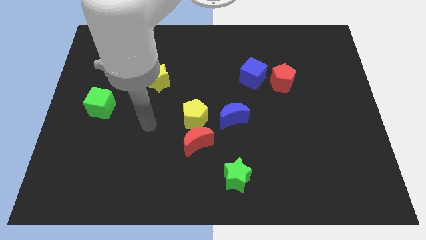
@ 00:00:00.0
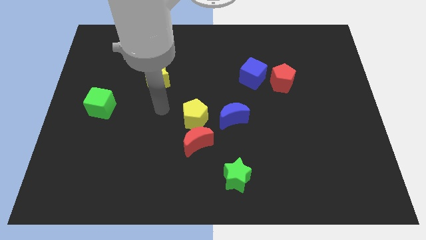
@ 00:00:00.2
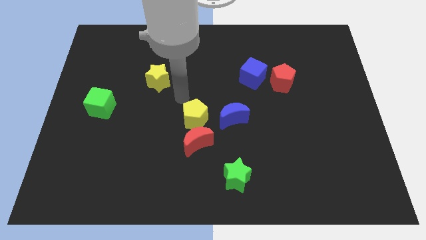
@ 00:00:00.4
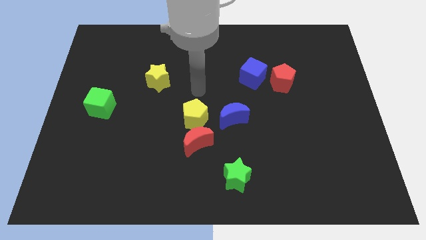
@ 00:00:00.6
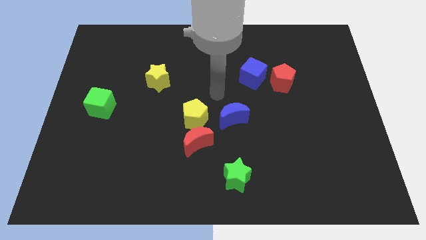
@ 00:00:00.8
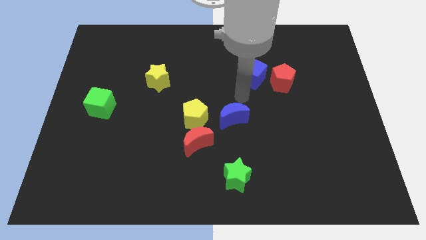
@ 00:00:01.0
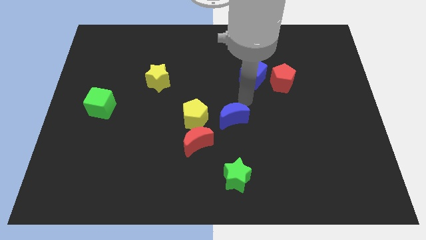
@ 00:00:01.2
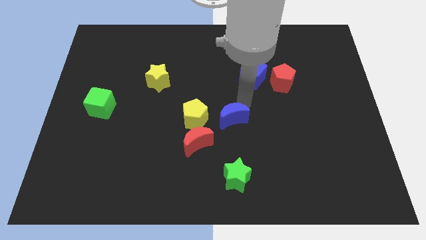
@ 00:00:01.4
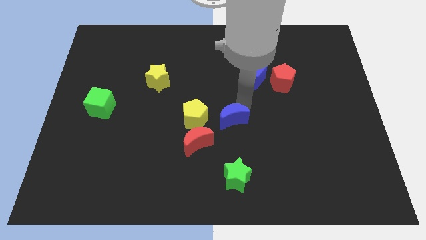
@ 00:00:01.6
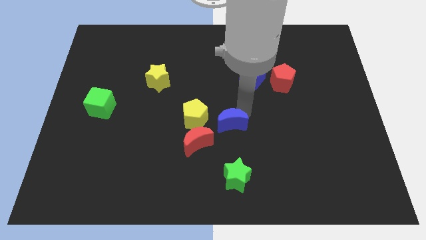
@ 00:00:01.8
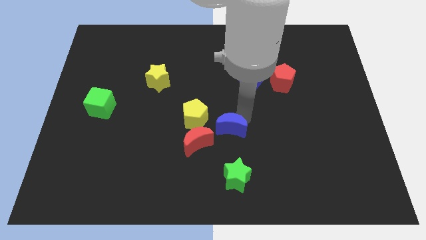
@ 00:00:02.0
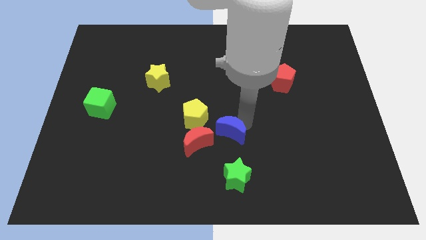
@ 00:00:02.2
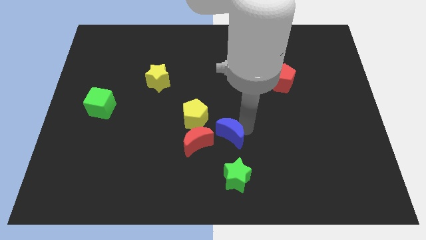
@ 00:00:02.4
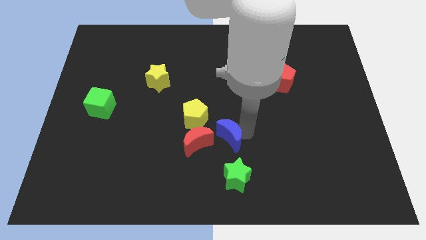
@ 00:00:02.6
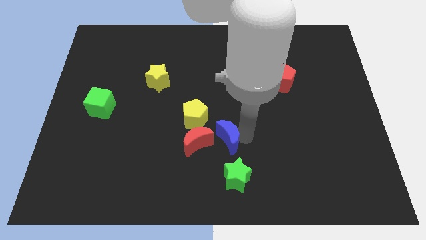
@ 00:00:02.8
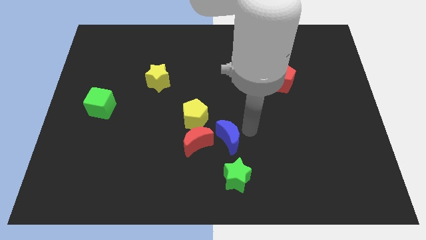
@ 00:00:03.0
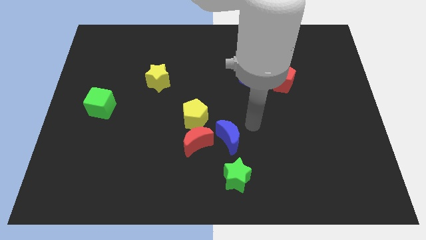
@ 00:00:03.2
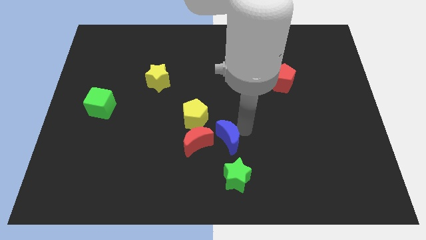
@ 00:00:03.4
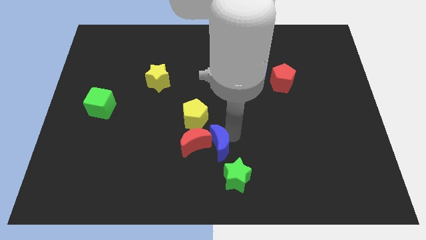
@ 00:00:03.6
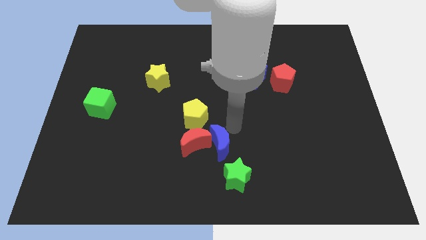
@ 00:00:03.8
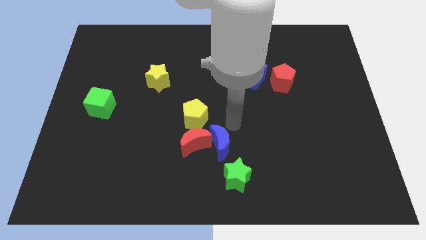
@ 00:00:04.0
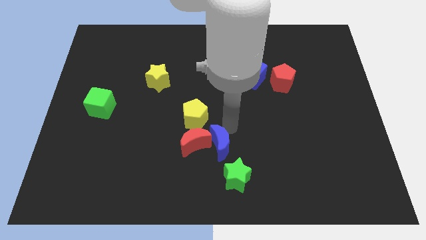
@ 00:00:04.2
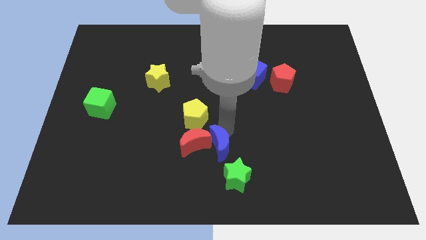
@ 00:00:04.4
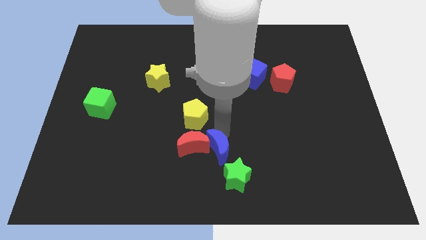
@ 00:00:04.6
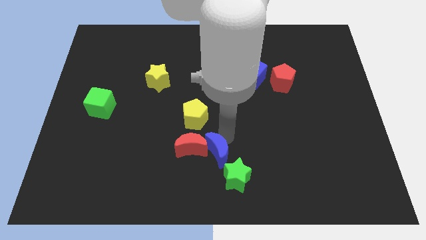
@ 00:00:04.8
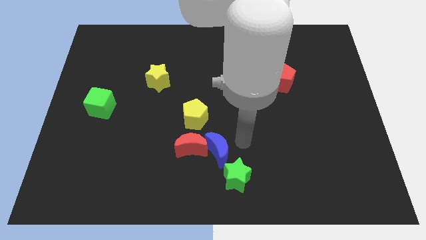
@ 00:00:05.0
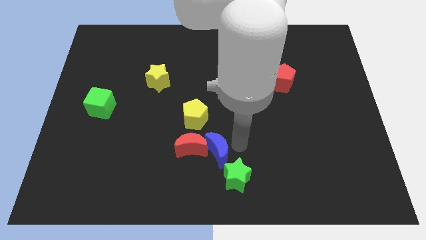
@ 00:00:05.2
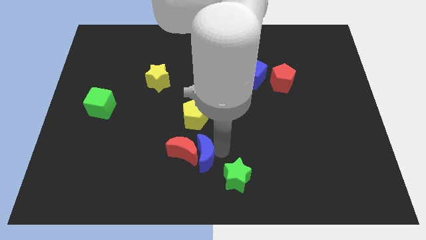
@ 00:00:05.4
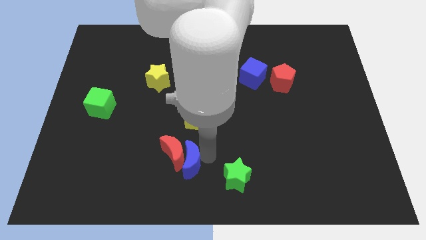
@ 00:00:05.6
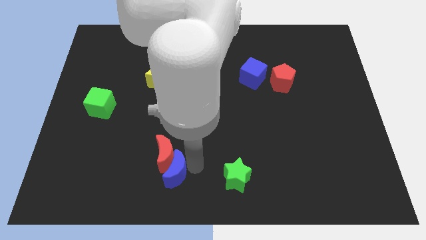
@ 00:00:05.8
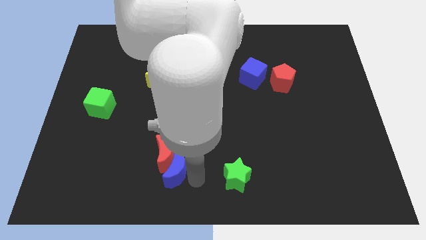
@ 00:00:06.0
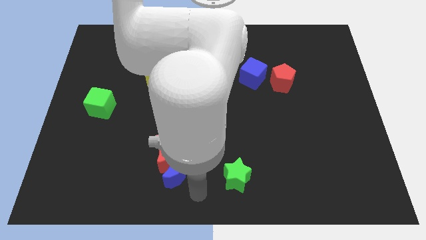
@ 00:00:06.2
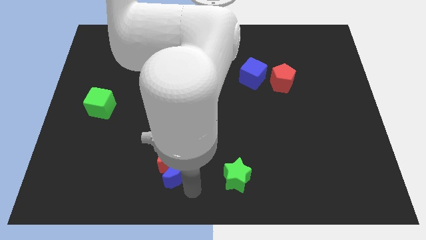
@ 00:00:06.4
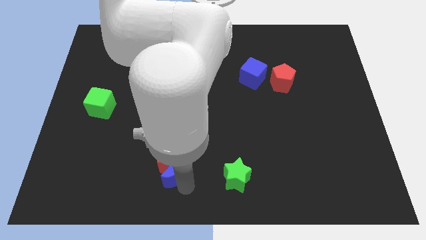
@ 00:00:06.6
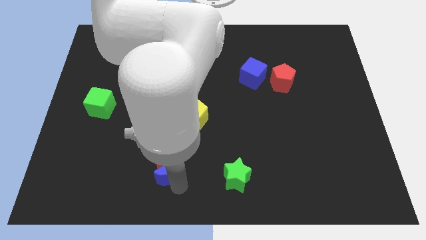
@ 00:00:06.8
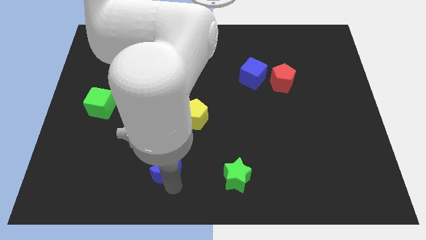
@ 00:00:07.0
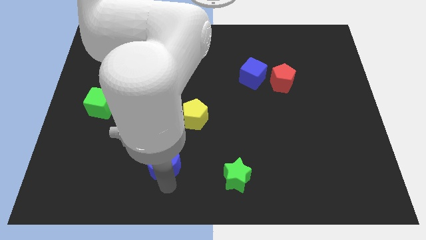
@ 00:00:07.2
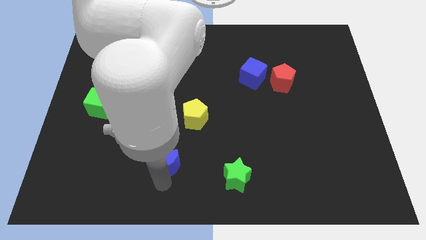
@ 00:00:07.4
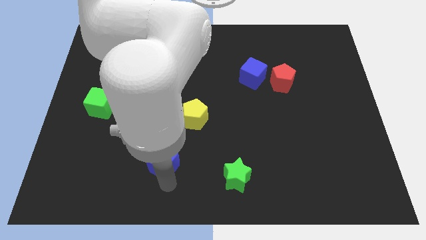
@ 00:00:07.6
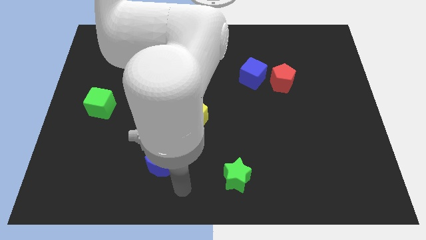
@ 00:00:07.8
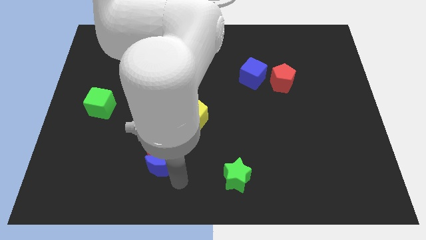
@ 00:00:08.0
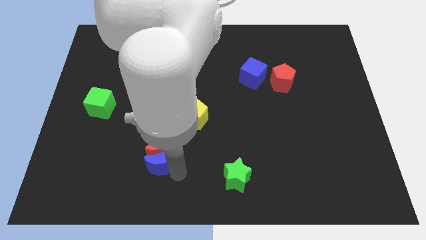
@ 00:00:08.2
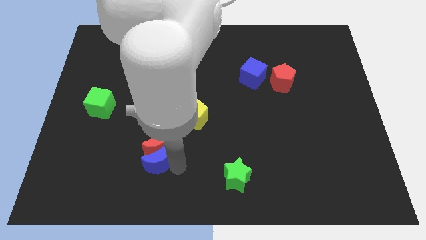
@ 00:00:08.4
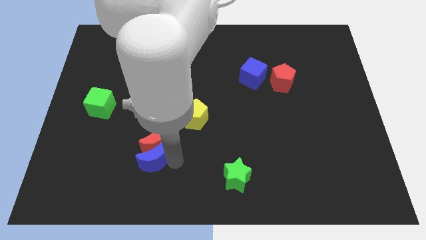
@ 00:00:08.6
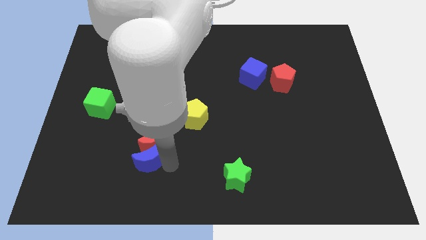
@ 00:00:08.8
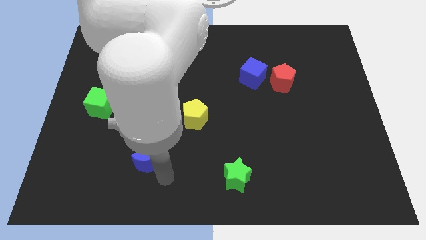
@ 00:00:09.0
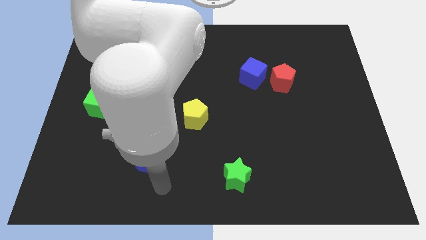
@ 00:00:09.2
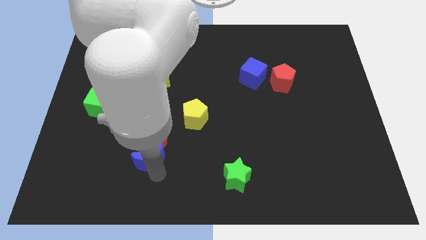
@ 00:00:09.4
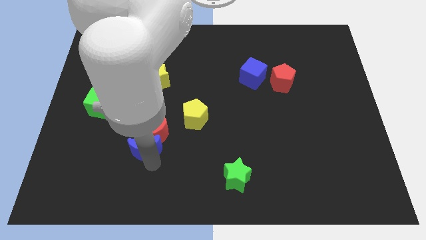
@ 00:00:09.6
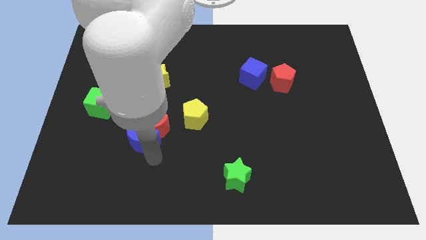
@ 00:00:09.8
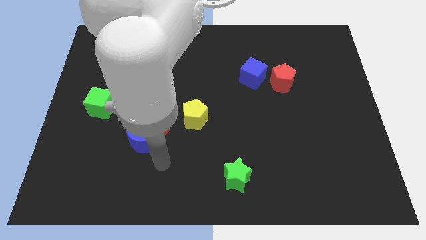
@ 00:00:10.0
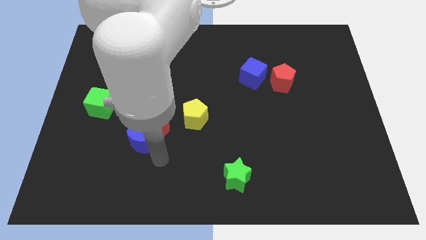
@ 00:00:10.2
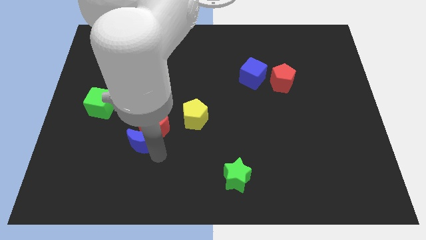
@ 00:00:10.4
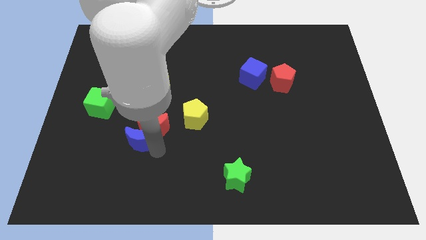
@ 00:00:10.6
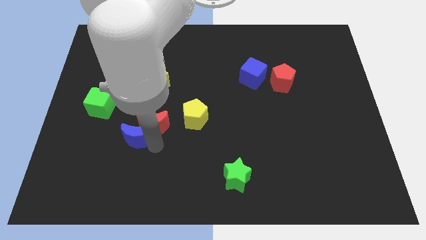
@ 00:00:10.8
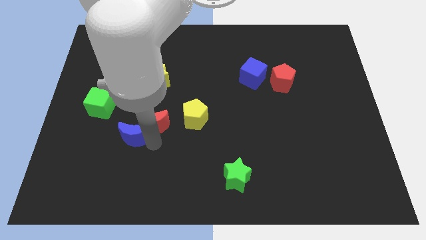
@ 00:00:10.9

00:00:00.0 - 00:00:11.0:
slide the blue moon to the bottom right of the green cube

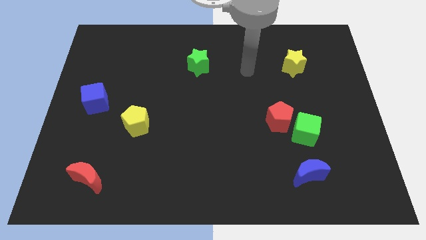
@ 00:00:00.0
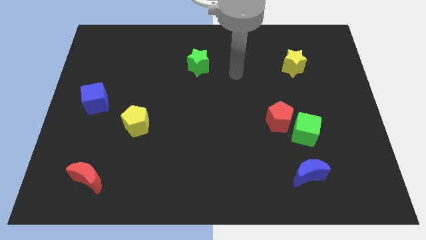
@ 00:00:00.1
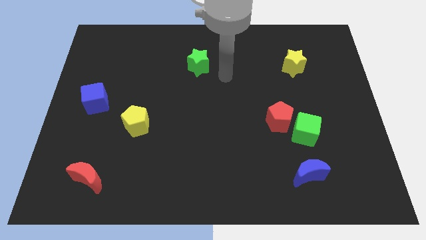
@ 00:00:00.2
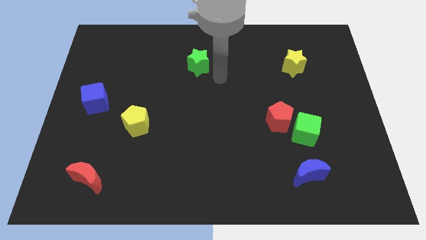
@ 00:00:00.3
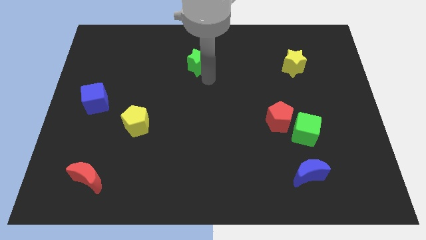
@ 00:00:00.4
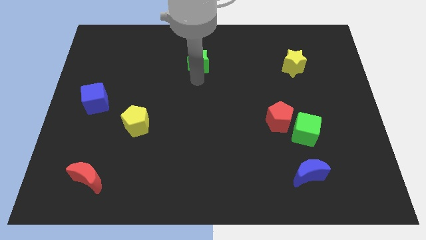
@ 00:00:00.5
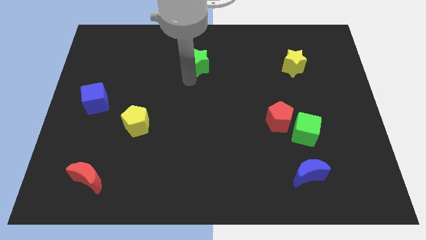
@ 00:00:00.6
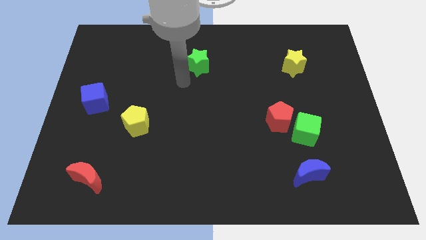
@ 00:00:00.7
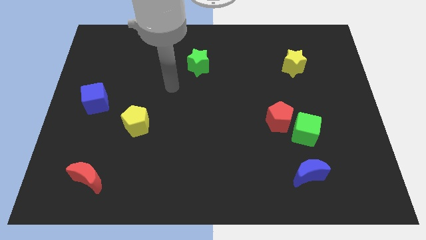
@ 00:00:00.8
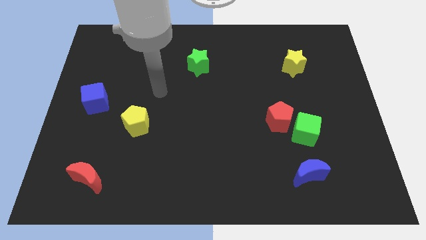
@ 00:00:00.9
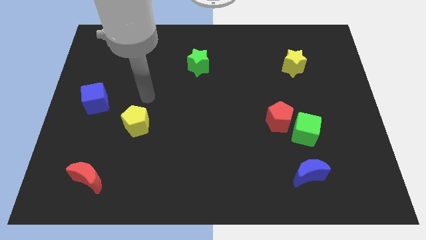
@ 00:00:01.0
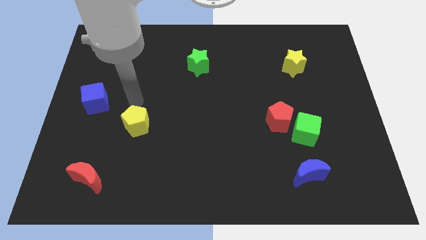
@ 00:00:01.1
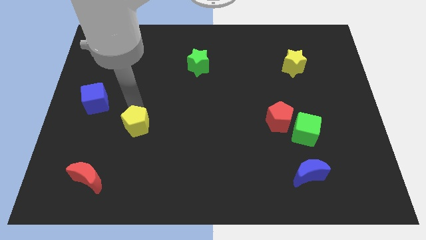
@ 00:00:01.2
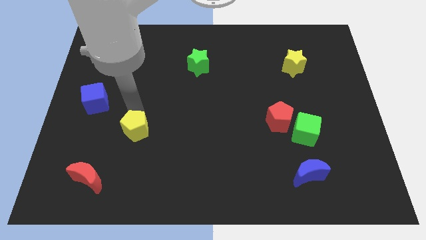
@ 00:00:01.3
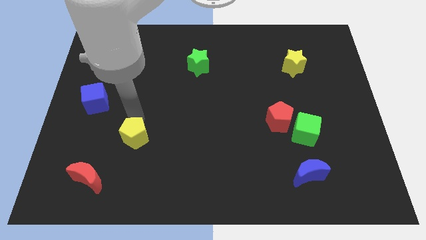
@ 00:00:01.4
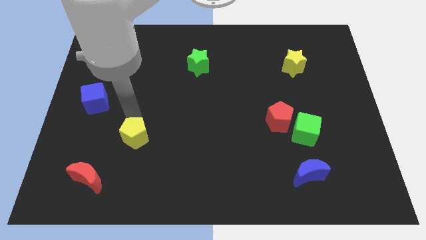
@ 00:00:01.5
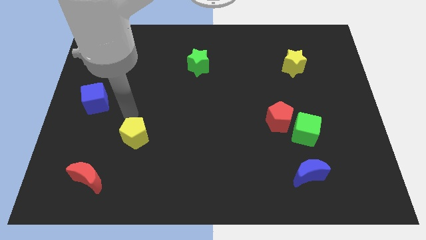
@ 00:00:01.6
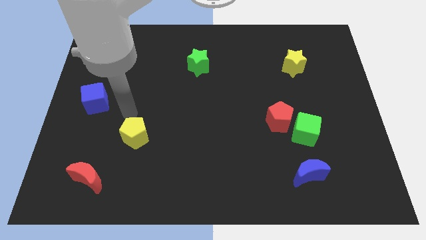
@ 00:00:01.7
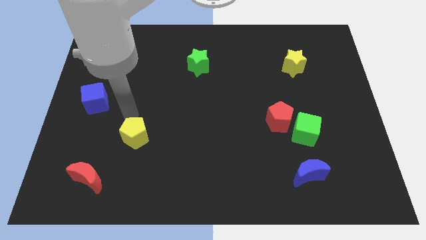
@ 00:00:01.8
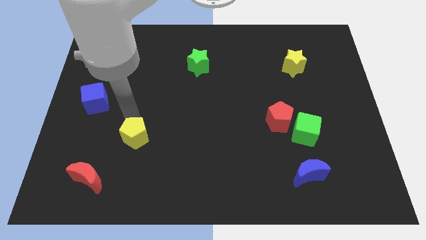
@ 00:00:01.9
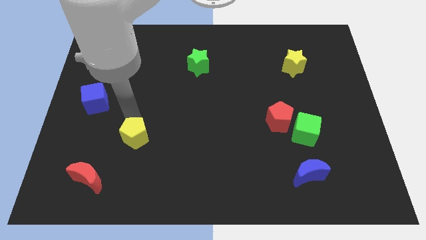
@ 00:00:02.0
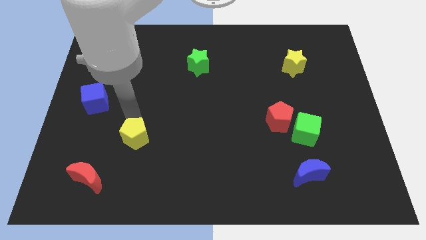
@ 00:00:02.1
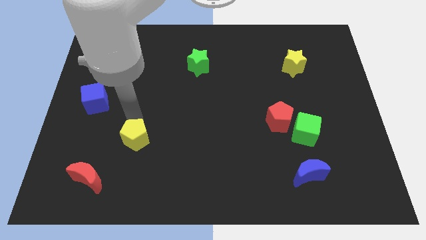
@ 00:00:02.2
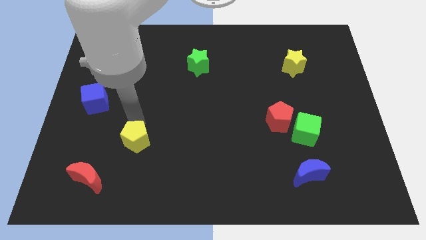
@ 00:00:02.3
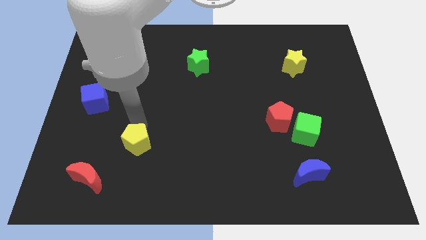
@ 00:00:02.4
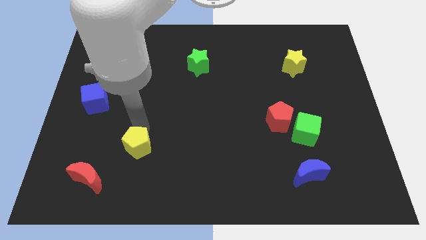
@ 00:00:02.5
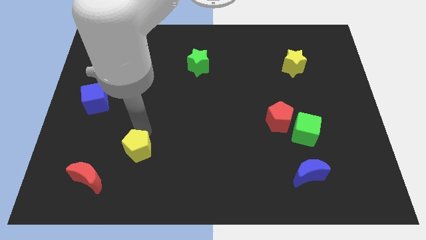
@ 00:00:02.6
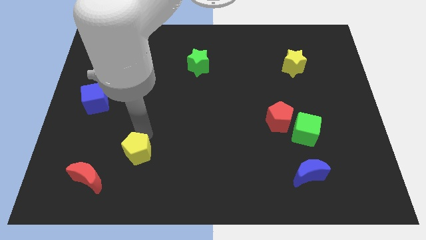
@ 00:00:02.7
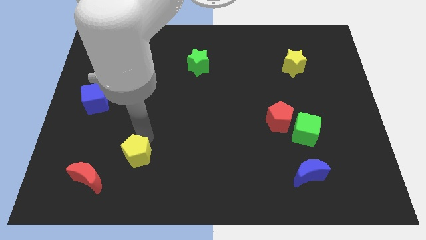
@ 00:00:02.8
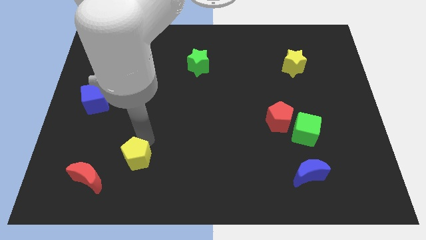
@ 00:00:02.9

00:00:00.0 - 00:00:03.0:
put the yellow pentagon right of the red moon
